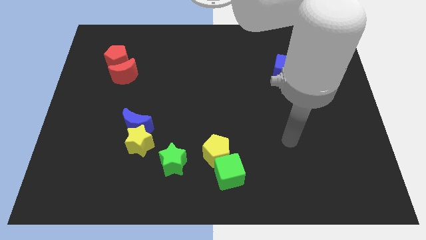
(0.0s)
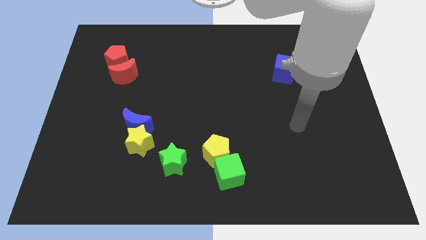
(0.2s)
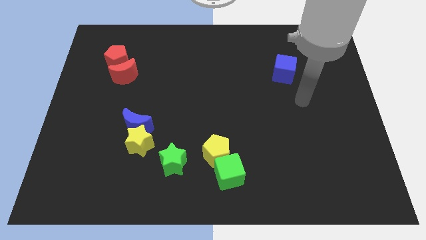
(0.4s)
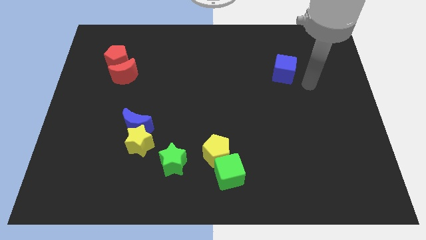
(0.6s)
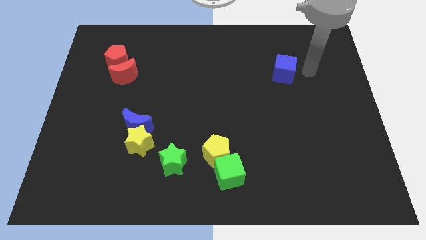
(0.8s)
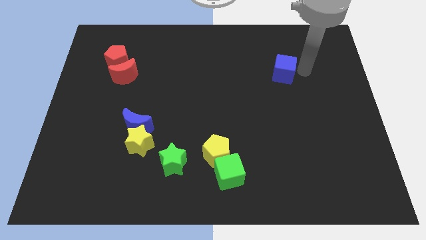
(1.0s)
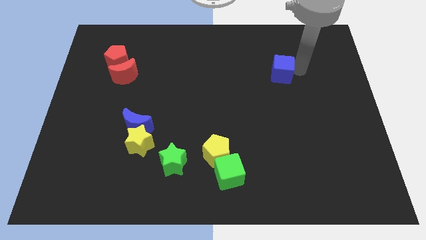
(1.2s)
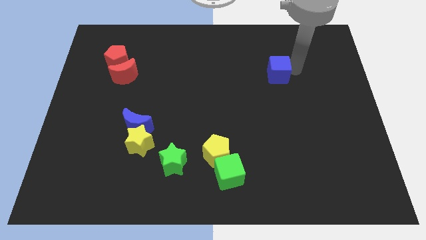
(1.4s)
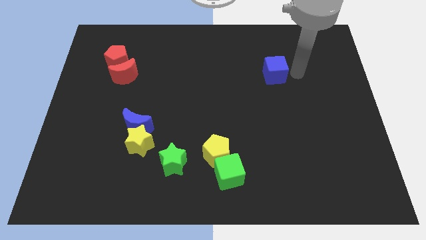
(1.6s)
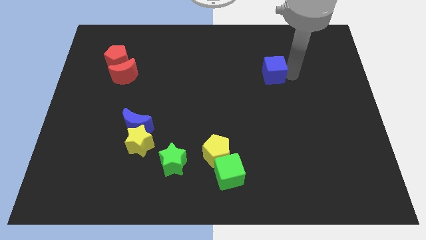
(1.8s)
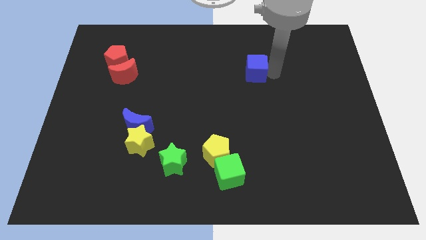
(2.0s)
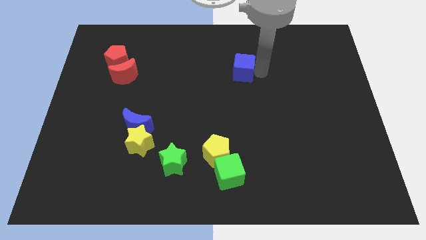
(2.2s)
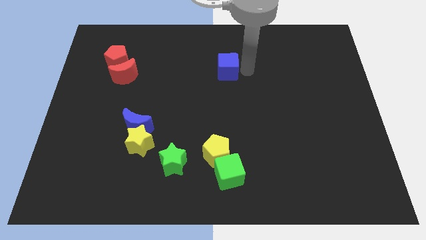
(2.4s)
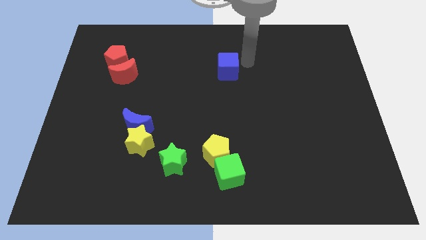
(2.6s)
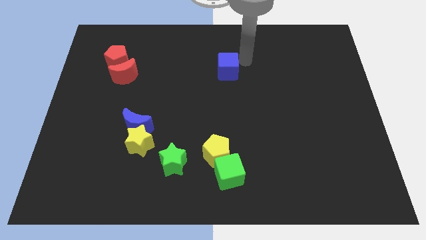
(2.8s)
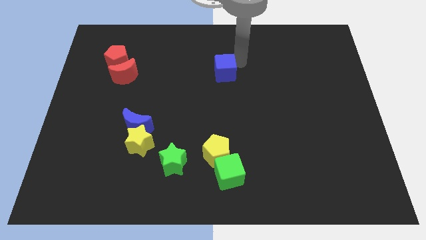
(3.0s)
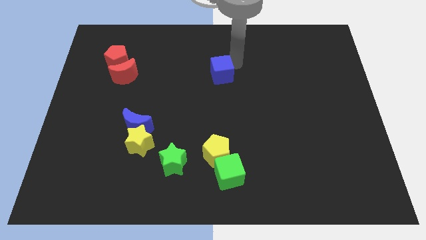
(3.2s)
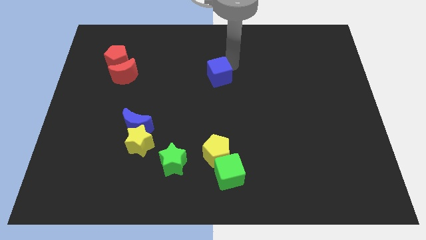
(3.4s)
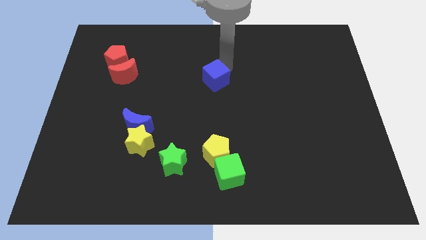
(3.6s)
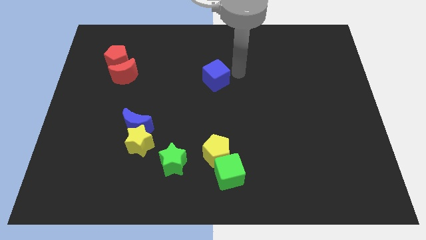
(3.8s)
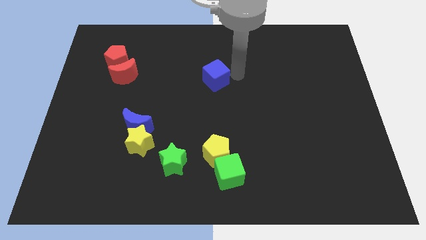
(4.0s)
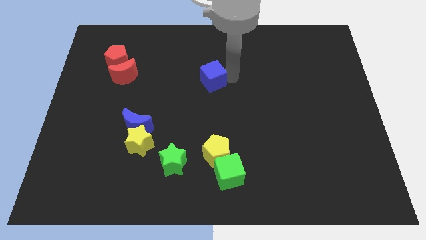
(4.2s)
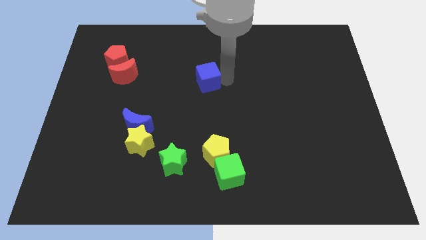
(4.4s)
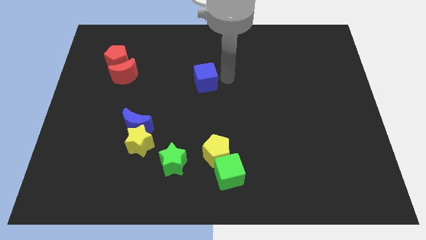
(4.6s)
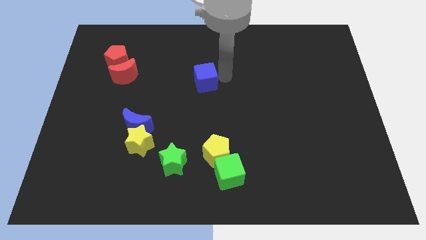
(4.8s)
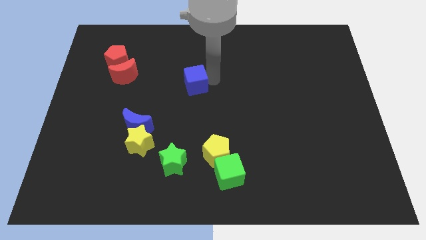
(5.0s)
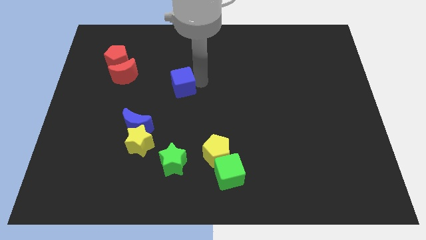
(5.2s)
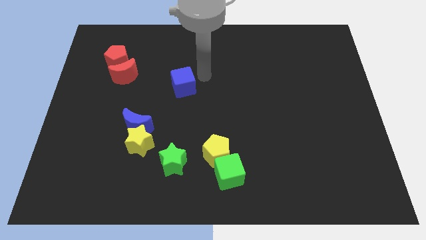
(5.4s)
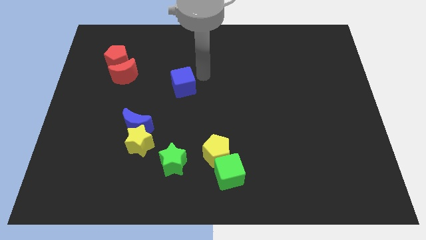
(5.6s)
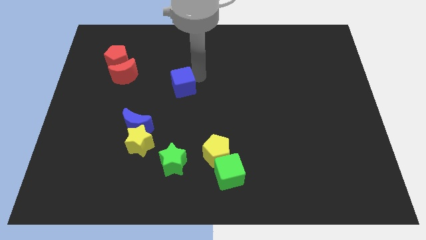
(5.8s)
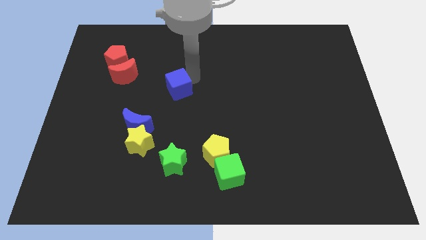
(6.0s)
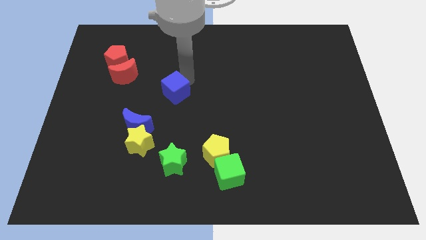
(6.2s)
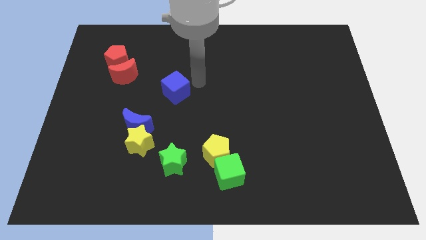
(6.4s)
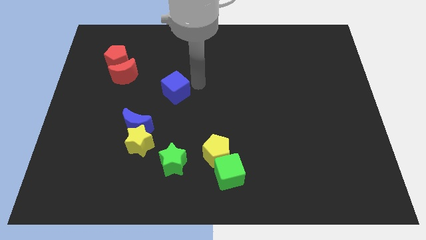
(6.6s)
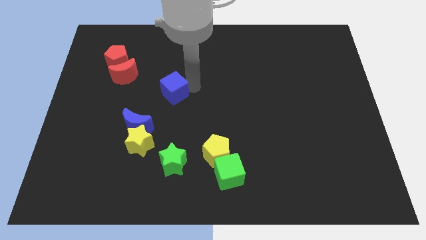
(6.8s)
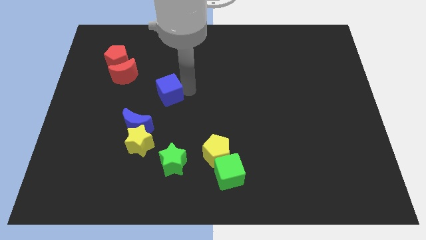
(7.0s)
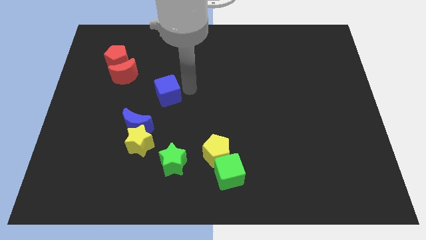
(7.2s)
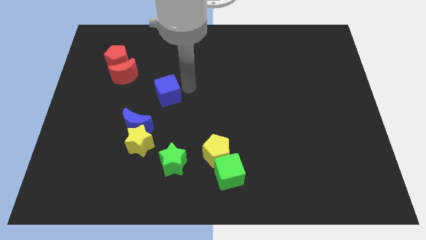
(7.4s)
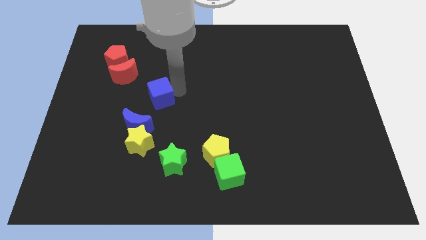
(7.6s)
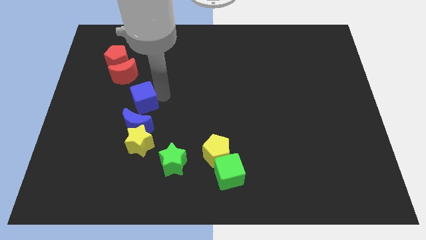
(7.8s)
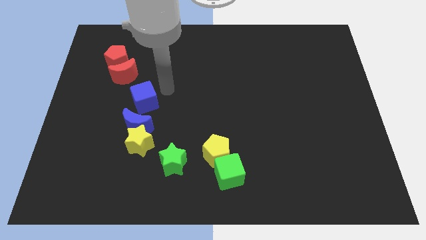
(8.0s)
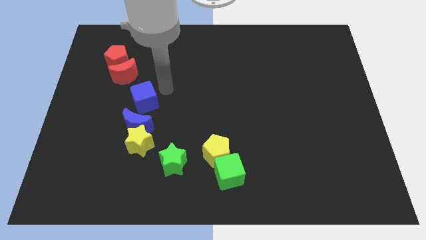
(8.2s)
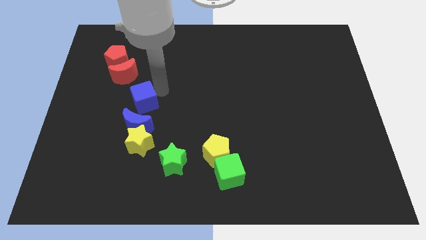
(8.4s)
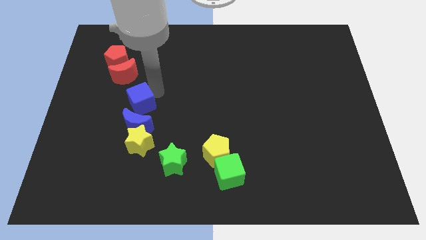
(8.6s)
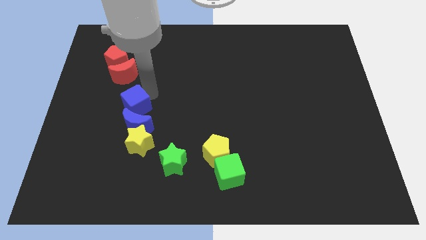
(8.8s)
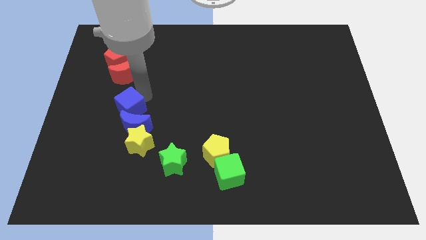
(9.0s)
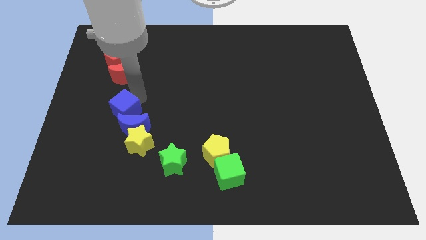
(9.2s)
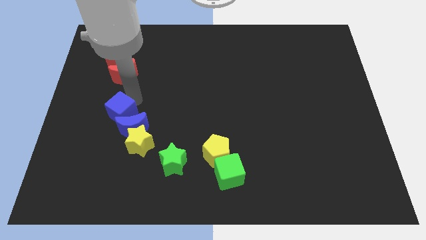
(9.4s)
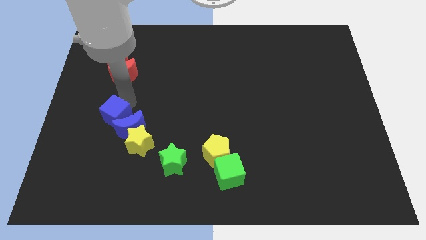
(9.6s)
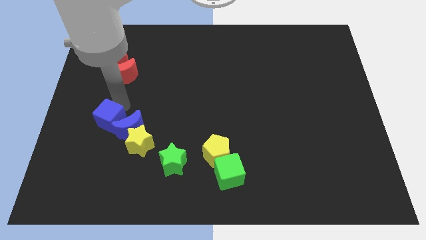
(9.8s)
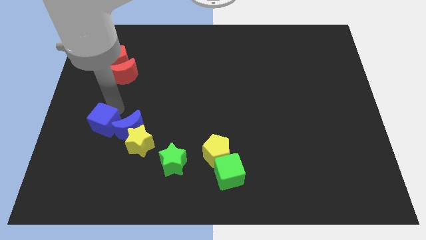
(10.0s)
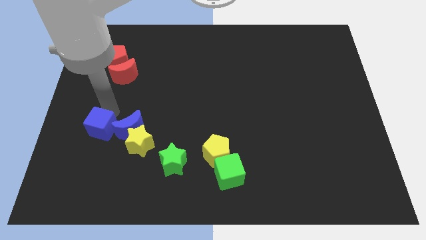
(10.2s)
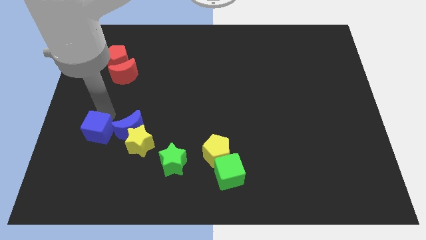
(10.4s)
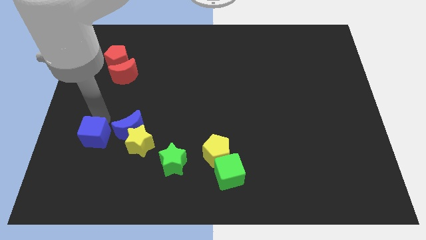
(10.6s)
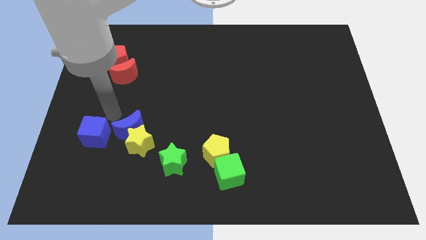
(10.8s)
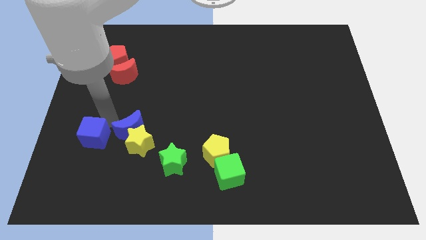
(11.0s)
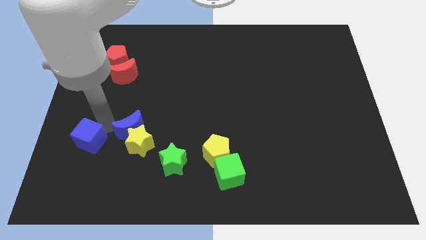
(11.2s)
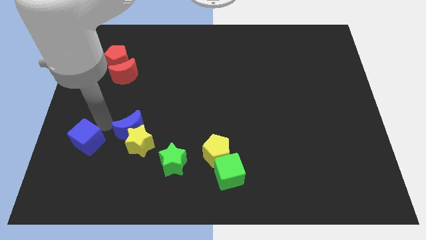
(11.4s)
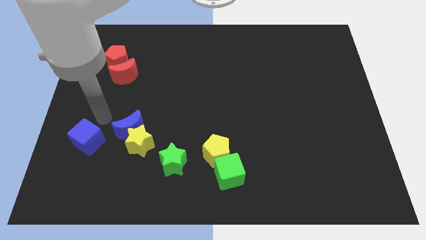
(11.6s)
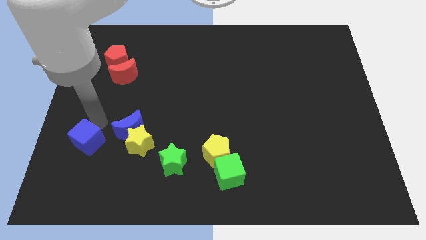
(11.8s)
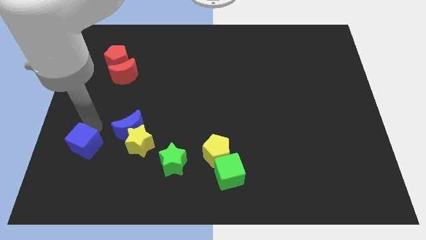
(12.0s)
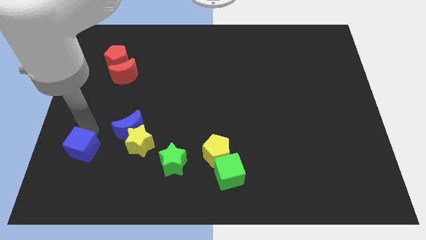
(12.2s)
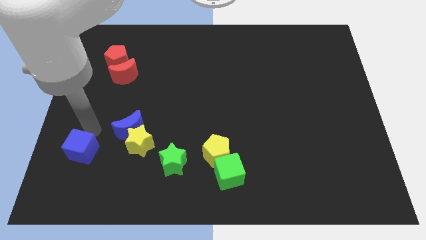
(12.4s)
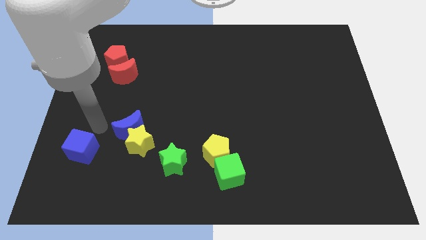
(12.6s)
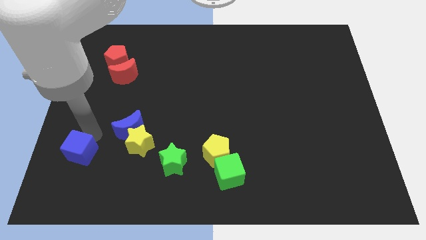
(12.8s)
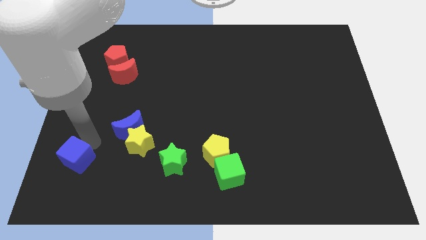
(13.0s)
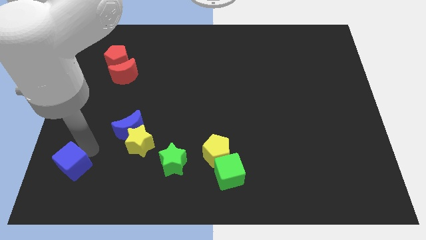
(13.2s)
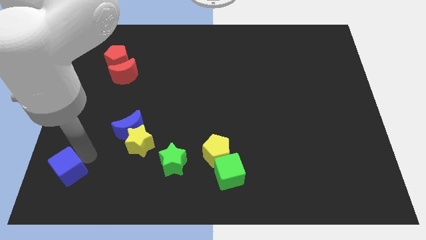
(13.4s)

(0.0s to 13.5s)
push the blue cube to the bottom left of the board
